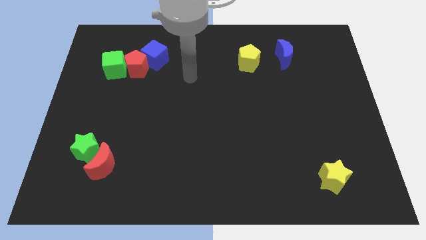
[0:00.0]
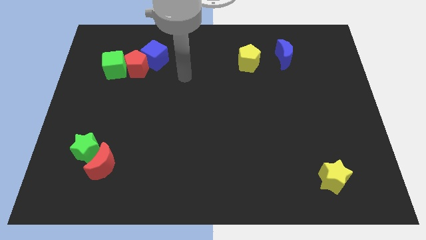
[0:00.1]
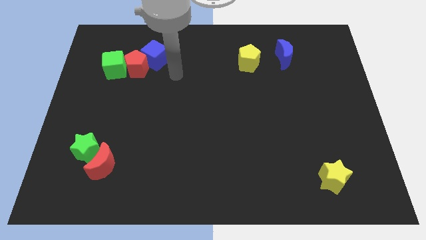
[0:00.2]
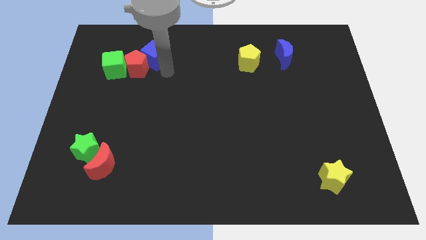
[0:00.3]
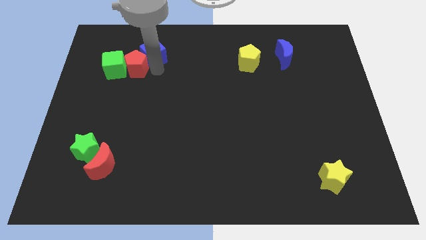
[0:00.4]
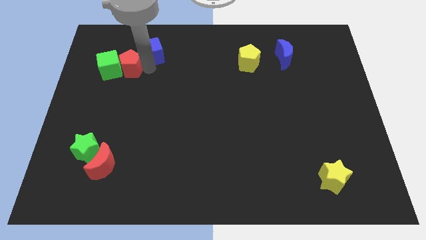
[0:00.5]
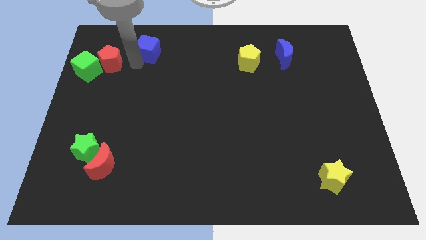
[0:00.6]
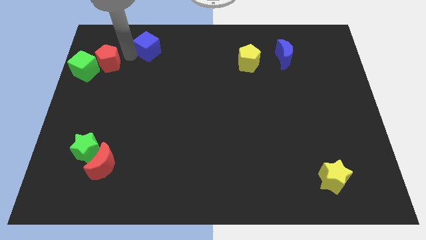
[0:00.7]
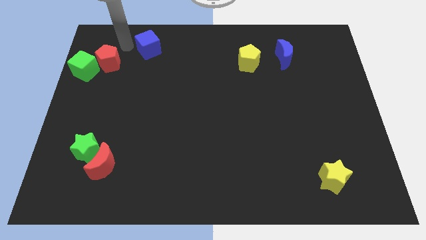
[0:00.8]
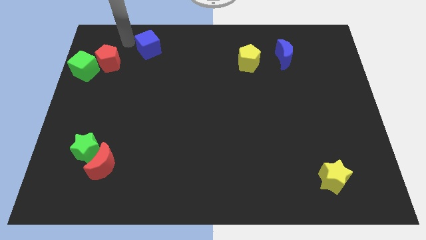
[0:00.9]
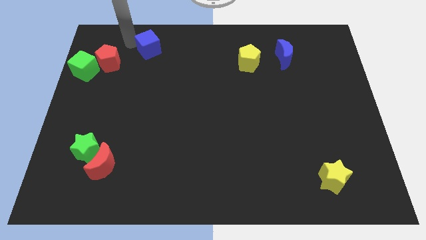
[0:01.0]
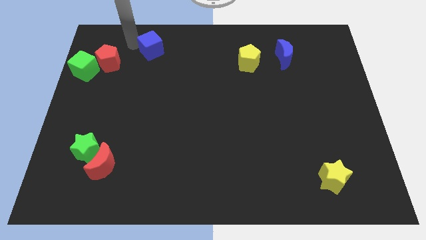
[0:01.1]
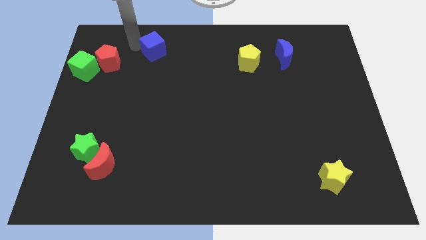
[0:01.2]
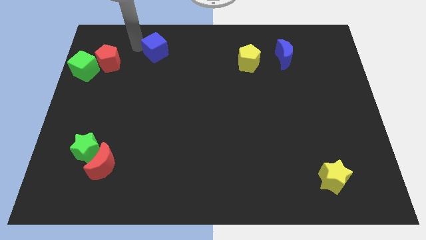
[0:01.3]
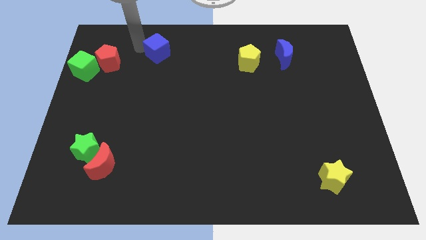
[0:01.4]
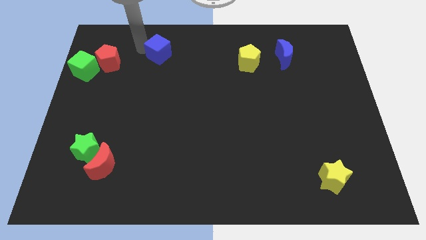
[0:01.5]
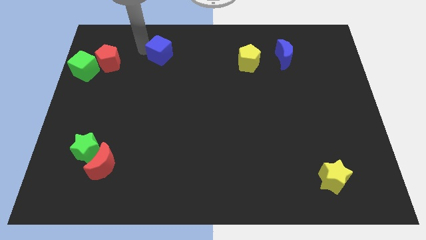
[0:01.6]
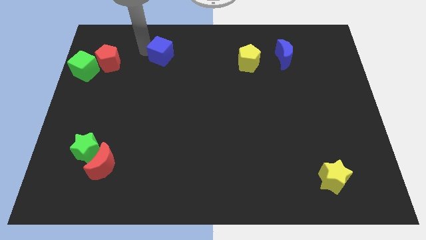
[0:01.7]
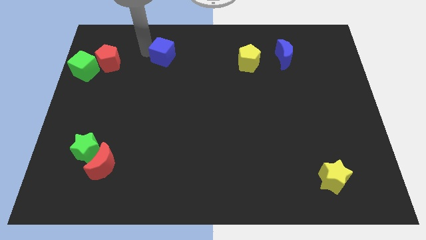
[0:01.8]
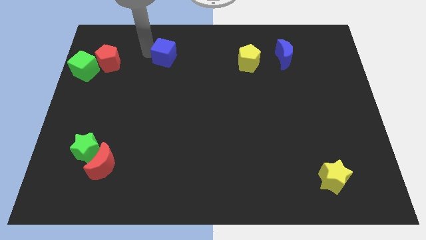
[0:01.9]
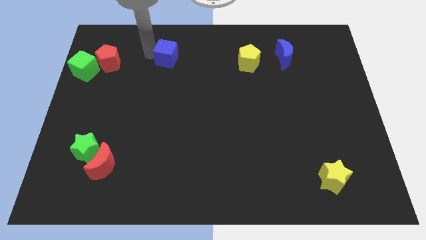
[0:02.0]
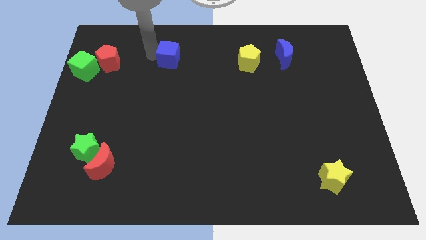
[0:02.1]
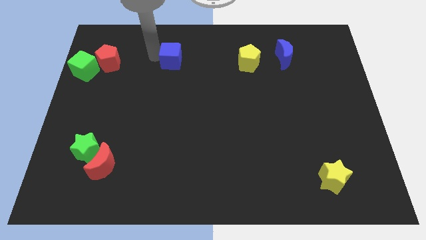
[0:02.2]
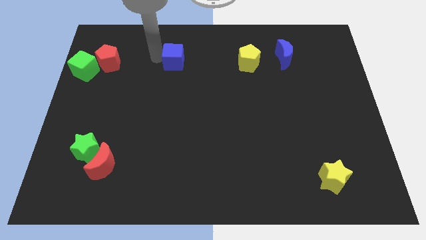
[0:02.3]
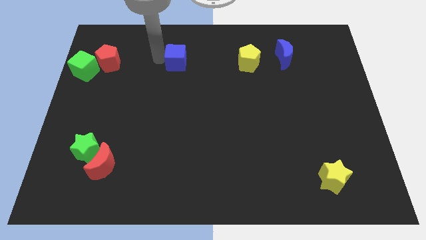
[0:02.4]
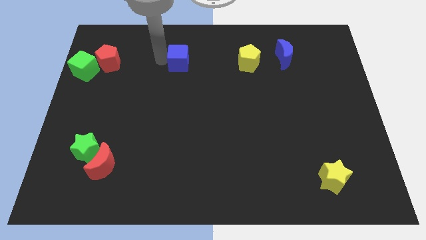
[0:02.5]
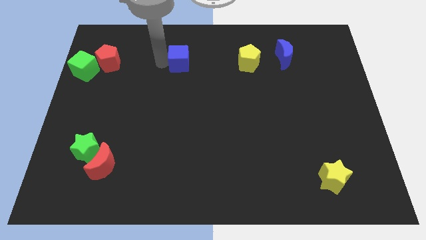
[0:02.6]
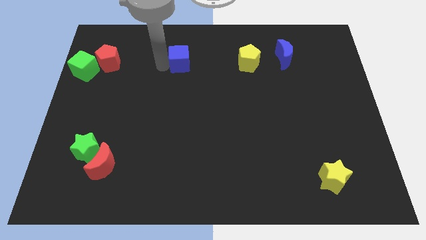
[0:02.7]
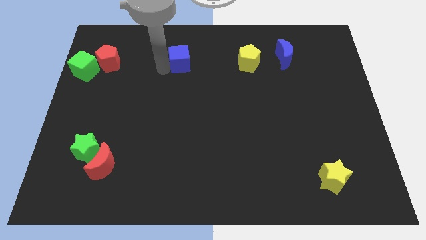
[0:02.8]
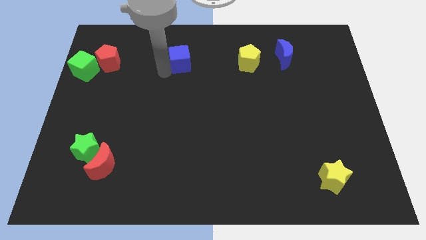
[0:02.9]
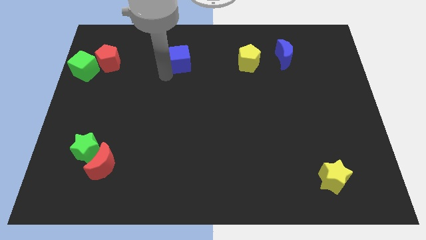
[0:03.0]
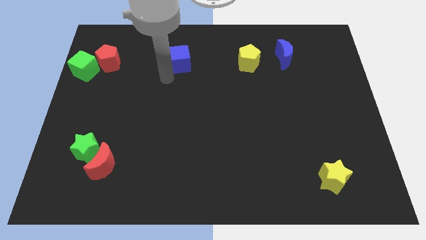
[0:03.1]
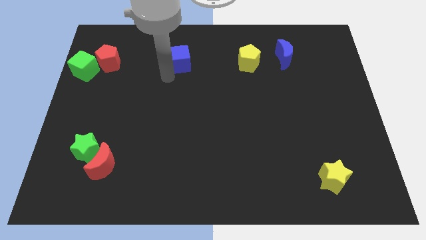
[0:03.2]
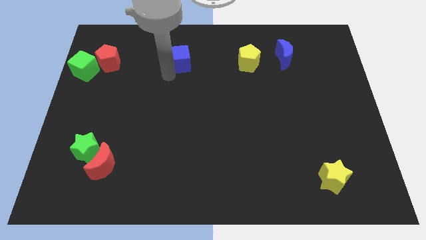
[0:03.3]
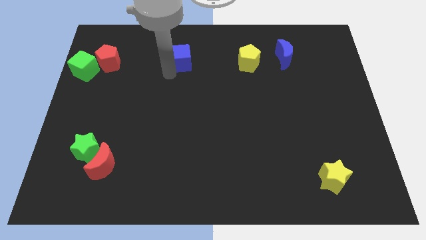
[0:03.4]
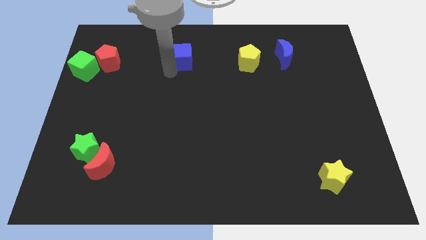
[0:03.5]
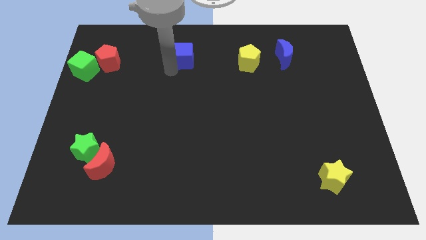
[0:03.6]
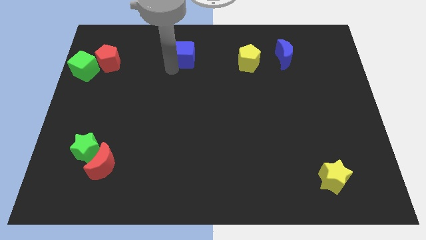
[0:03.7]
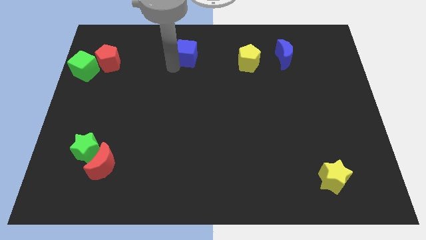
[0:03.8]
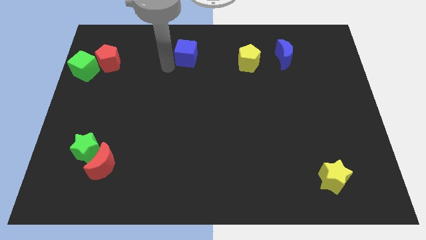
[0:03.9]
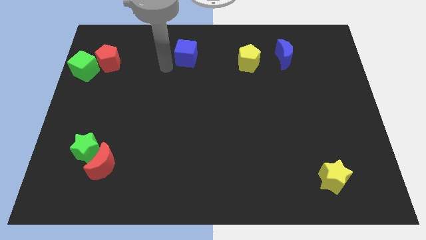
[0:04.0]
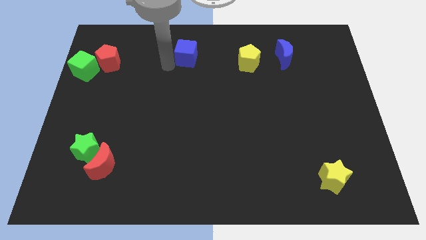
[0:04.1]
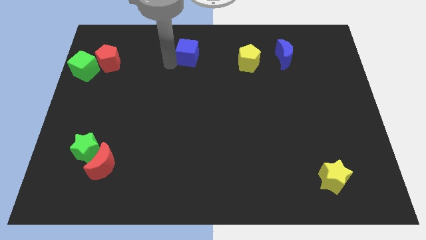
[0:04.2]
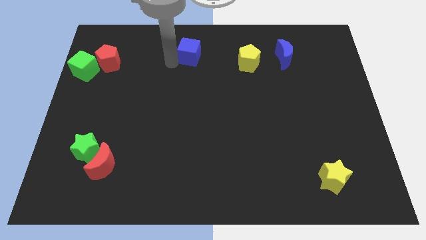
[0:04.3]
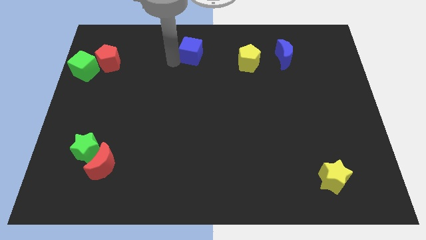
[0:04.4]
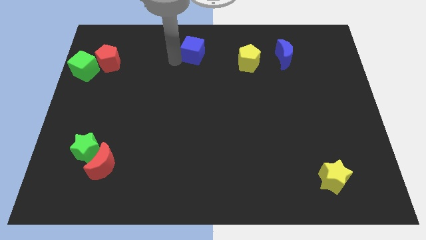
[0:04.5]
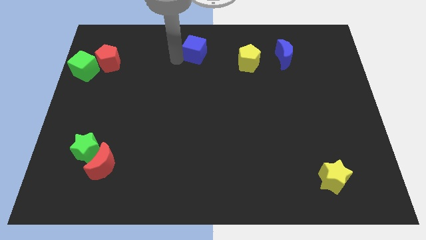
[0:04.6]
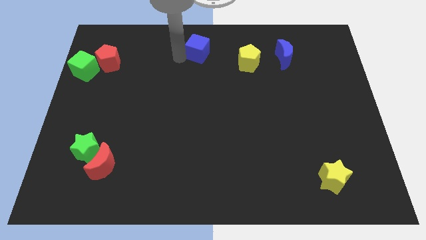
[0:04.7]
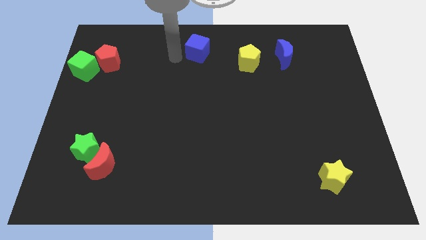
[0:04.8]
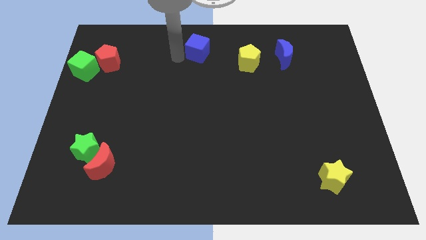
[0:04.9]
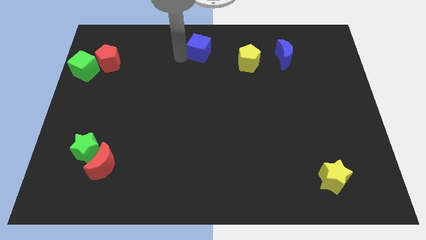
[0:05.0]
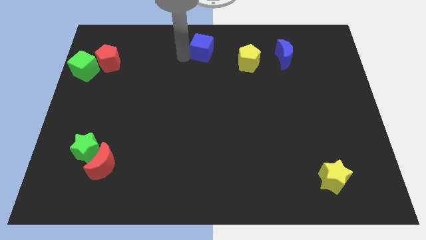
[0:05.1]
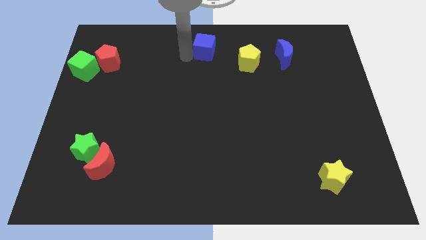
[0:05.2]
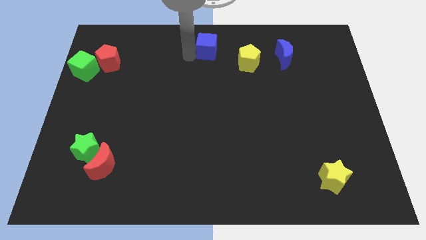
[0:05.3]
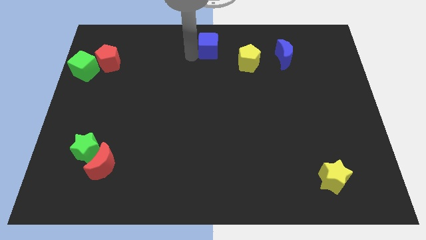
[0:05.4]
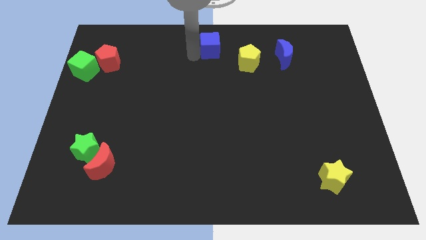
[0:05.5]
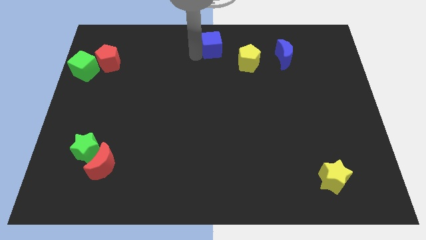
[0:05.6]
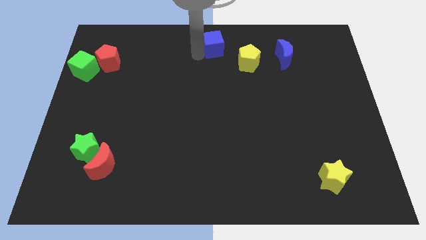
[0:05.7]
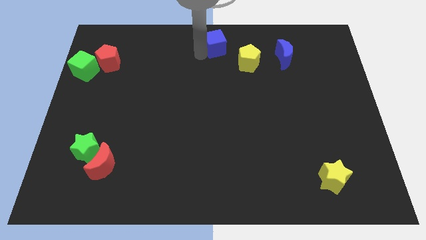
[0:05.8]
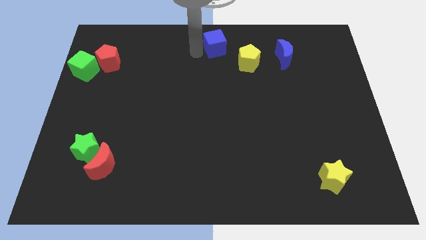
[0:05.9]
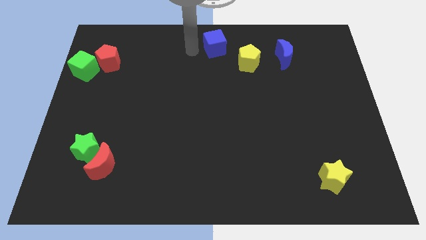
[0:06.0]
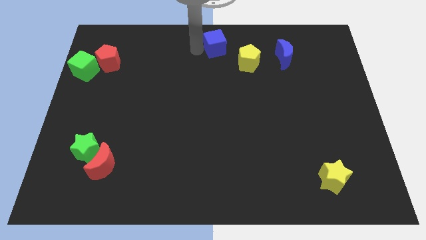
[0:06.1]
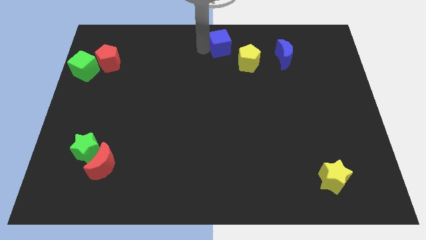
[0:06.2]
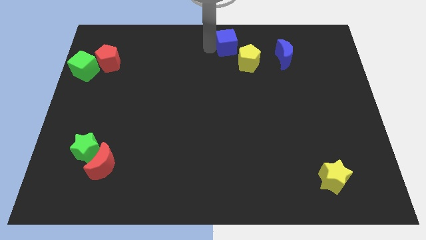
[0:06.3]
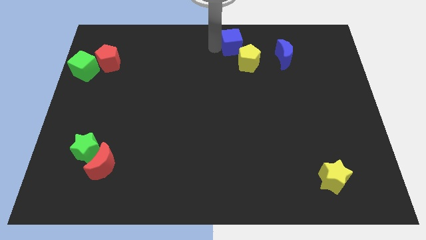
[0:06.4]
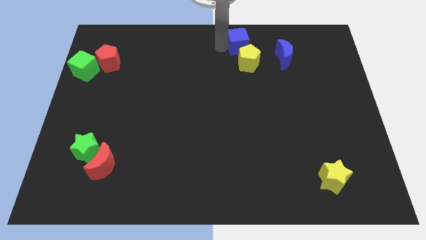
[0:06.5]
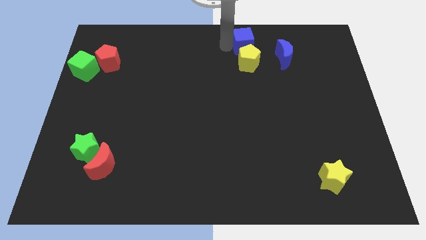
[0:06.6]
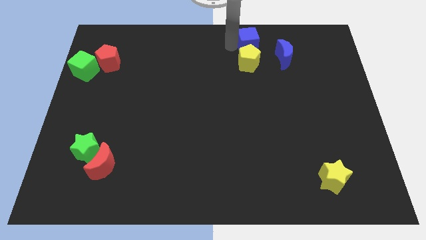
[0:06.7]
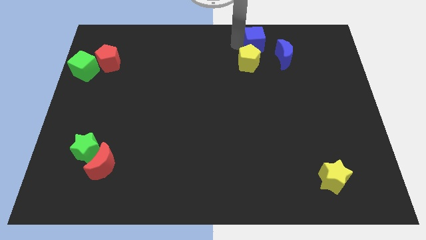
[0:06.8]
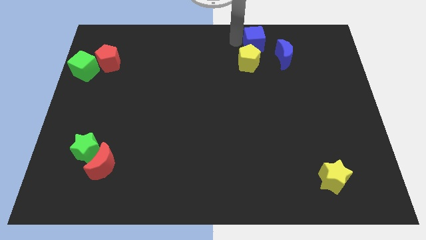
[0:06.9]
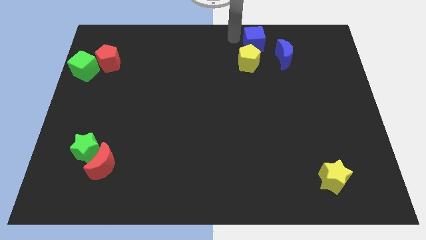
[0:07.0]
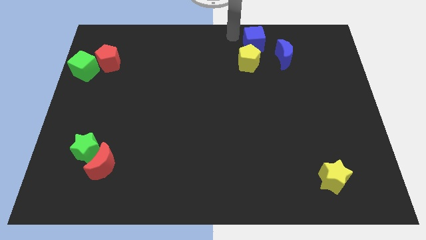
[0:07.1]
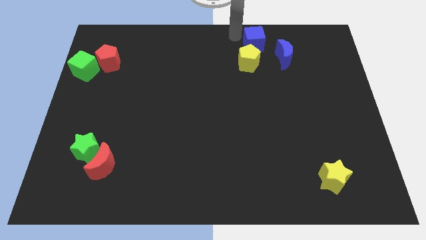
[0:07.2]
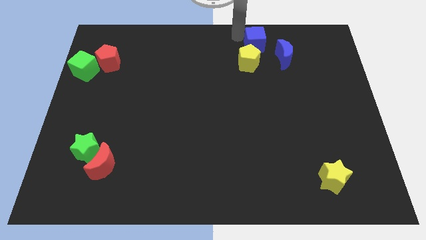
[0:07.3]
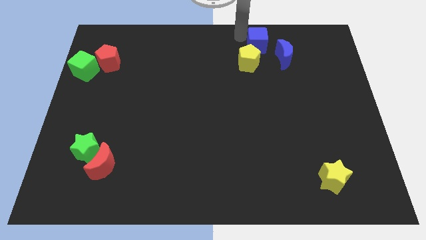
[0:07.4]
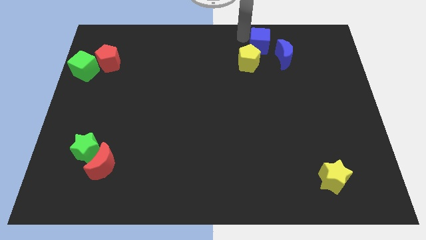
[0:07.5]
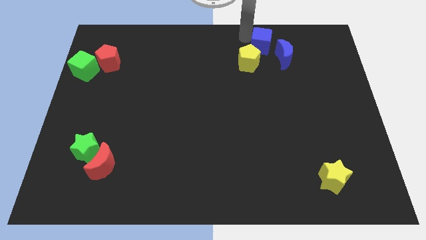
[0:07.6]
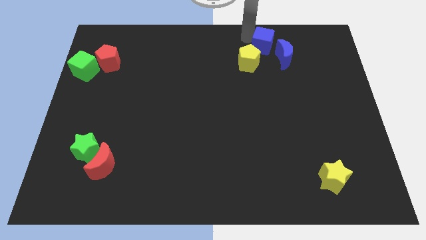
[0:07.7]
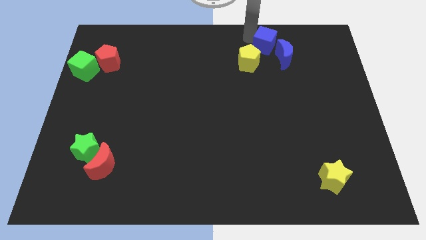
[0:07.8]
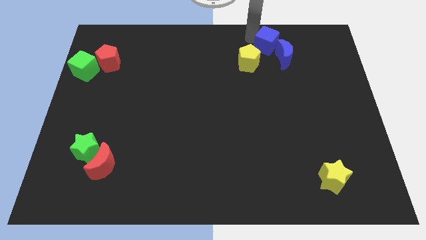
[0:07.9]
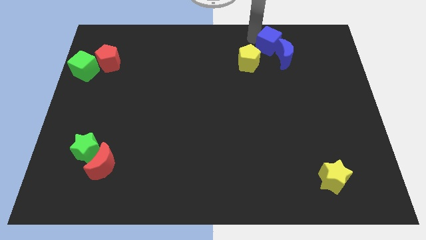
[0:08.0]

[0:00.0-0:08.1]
slide the blue cube close to the blue moon
